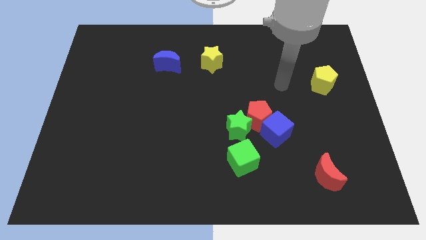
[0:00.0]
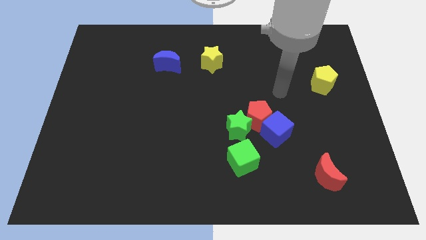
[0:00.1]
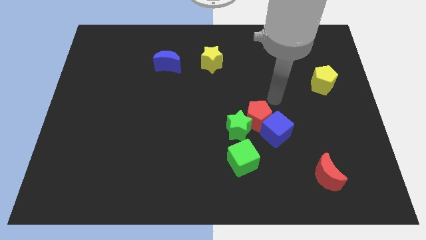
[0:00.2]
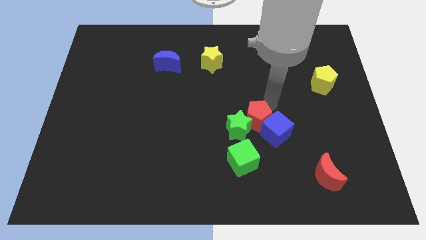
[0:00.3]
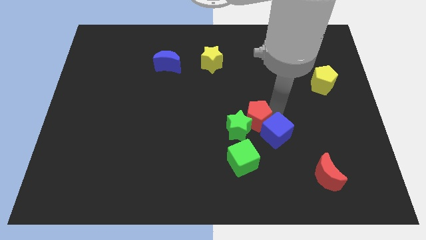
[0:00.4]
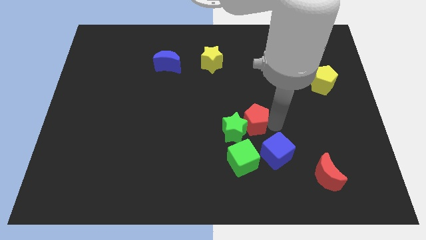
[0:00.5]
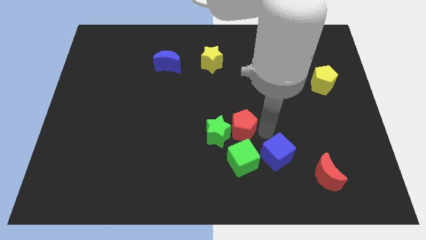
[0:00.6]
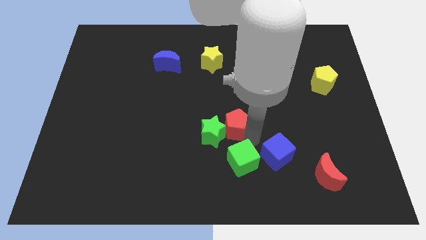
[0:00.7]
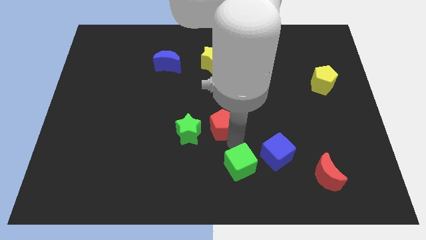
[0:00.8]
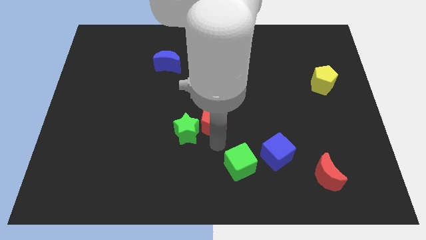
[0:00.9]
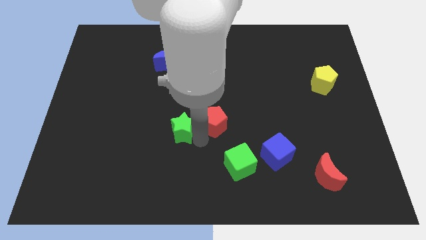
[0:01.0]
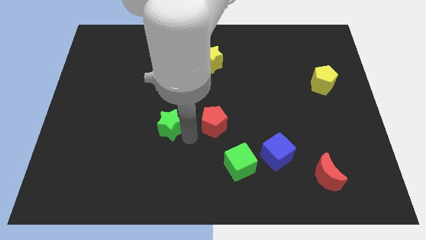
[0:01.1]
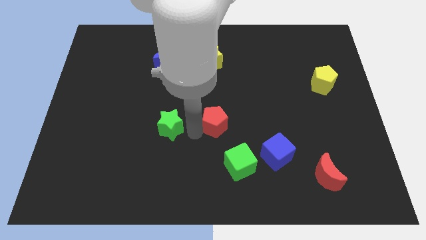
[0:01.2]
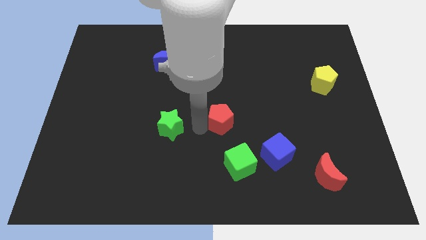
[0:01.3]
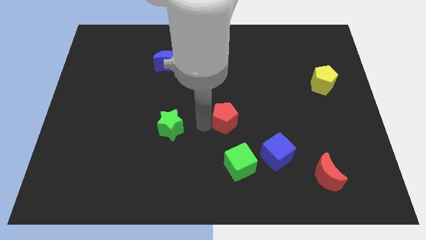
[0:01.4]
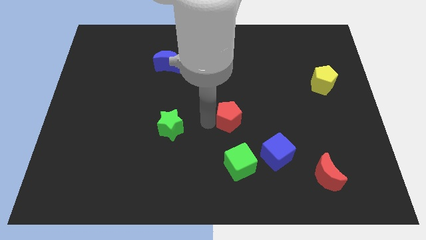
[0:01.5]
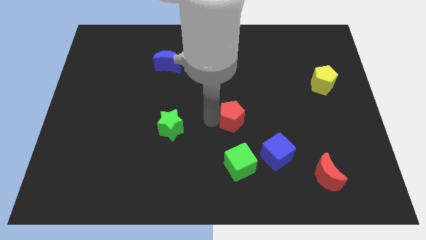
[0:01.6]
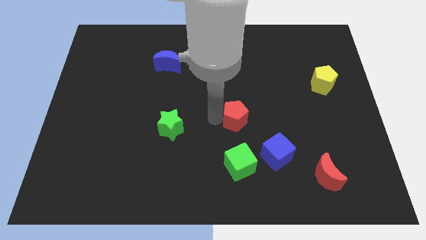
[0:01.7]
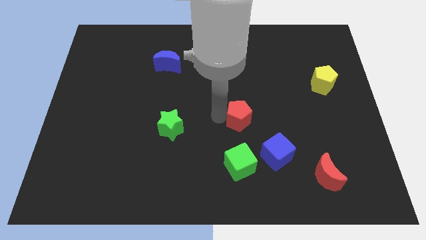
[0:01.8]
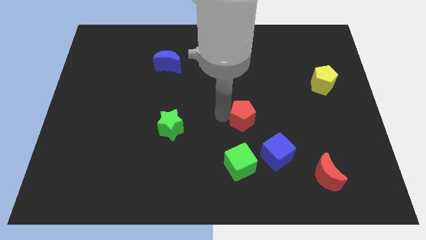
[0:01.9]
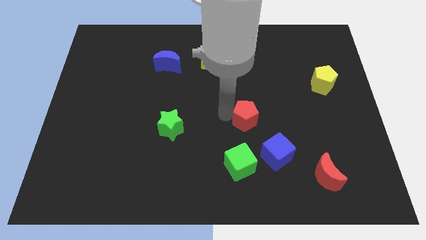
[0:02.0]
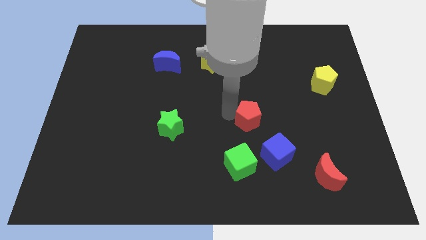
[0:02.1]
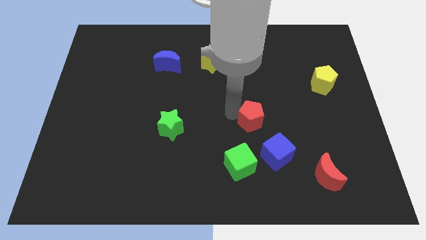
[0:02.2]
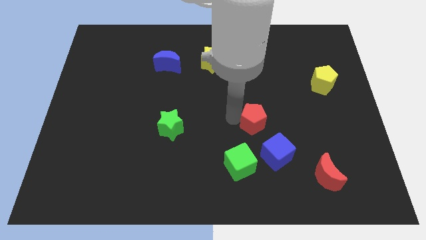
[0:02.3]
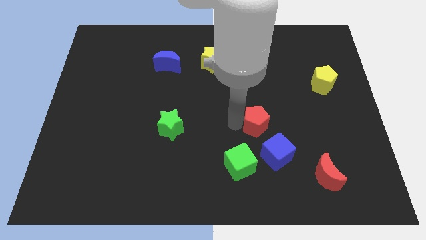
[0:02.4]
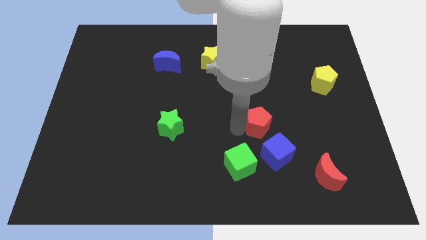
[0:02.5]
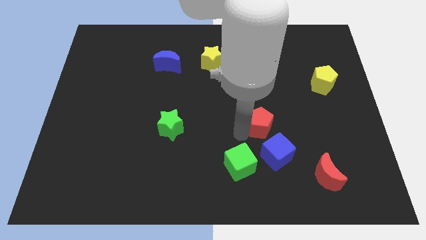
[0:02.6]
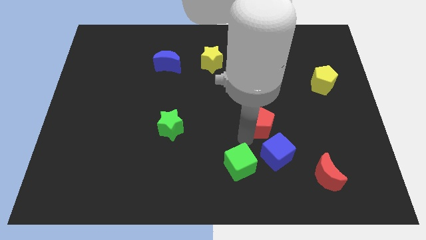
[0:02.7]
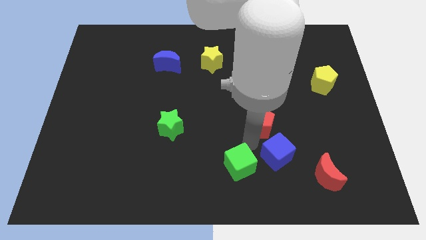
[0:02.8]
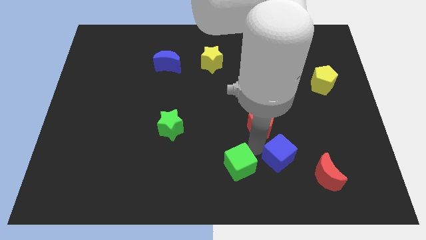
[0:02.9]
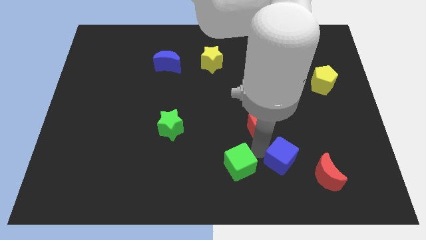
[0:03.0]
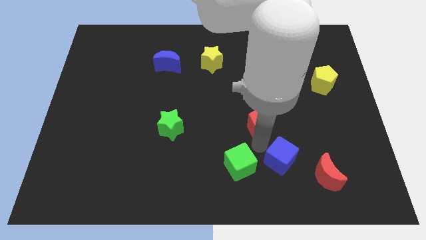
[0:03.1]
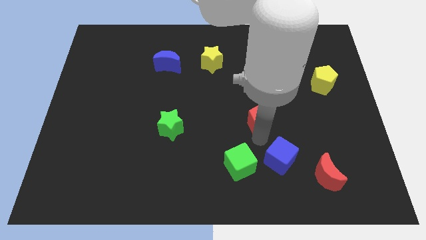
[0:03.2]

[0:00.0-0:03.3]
pull the red pentagon apart from the blue cube and green star

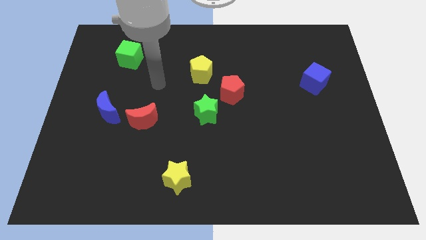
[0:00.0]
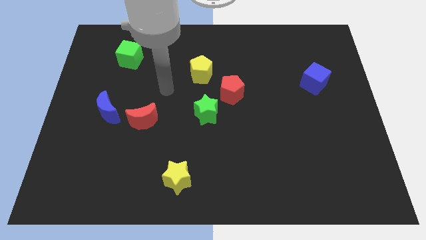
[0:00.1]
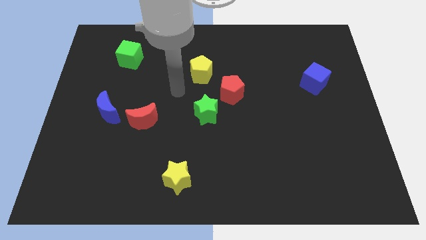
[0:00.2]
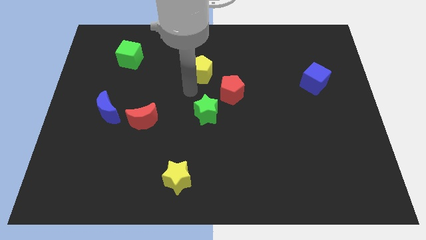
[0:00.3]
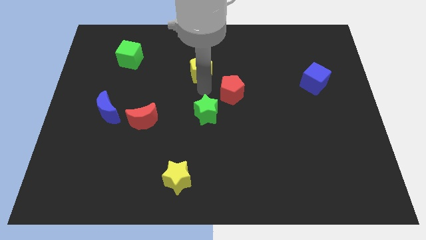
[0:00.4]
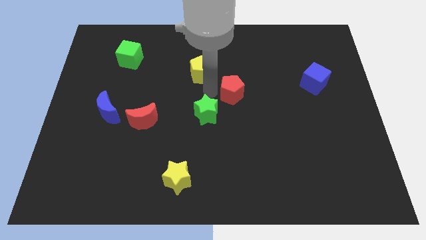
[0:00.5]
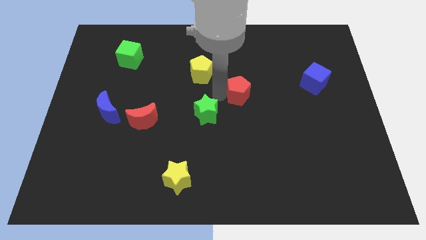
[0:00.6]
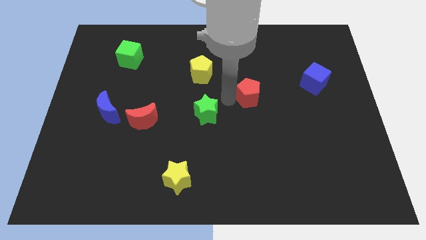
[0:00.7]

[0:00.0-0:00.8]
pull the green star apart from the red pentagon

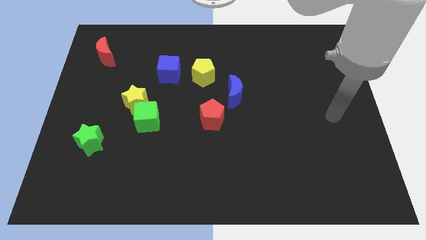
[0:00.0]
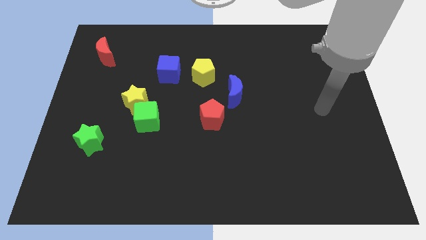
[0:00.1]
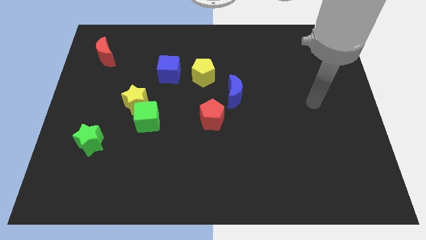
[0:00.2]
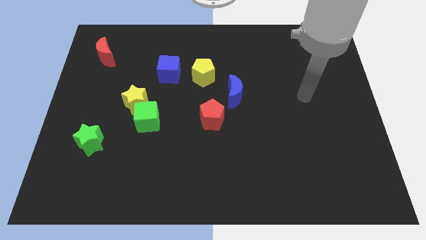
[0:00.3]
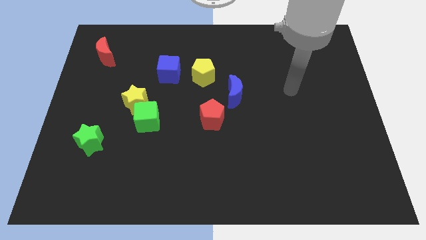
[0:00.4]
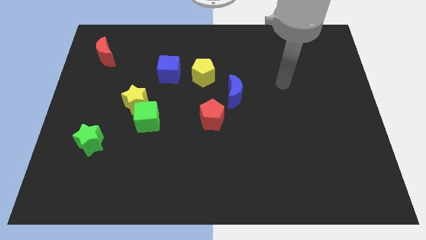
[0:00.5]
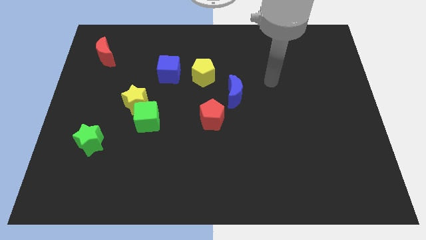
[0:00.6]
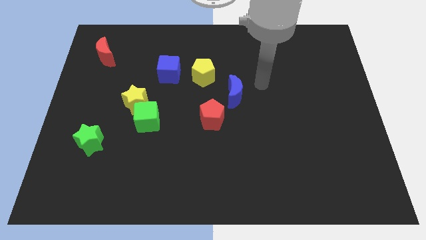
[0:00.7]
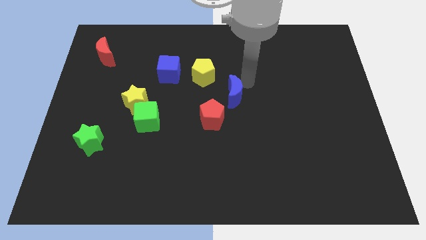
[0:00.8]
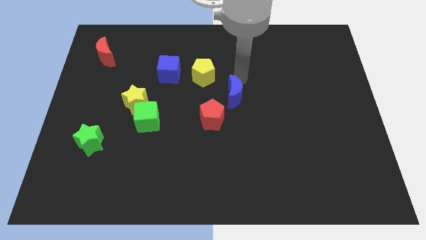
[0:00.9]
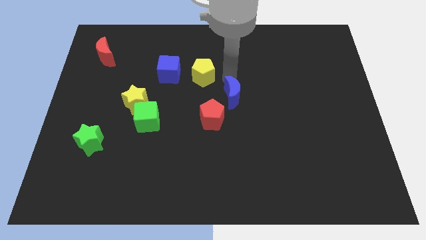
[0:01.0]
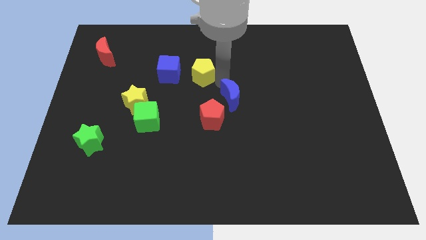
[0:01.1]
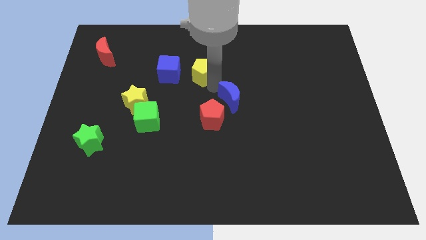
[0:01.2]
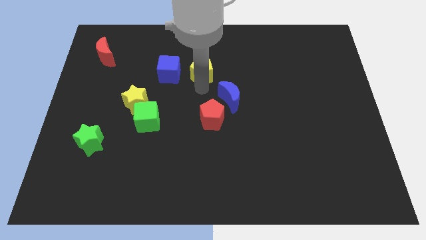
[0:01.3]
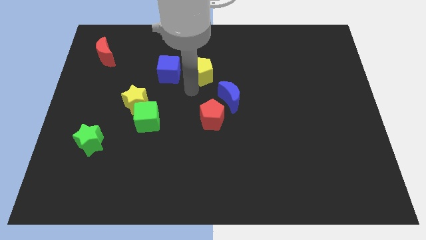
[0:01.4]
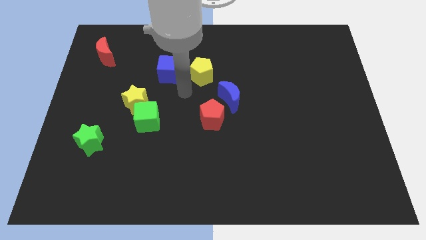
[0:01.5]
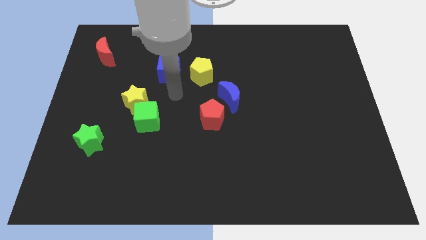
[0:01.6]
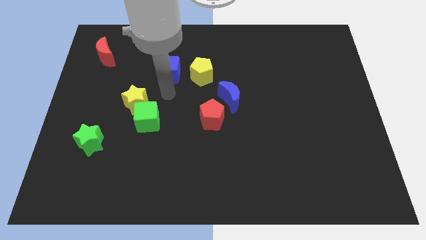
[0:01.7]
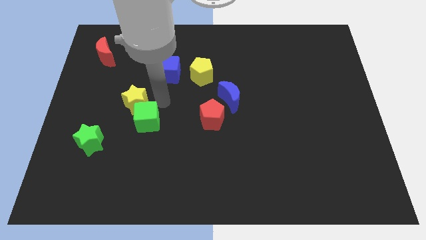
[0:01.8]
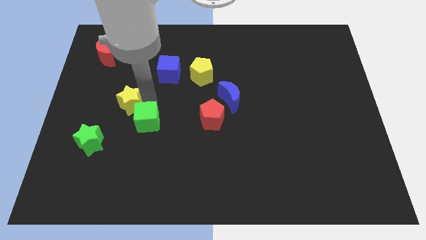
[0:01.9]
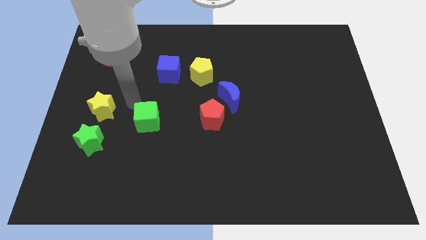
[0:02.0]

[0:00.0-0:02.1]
move the green cube away from the yellow star

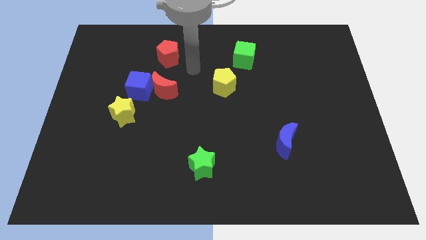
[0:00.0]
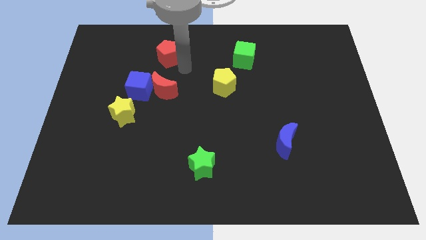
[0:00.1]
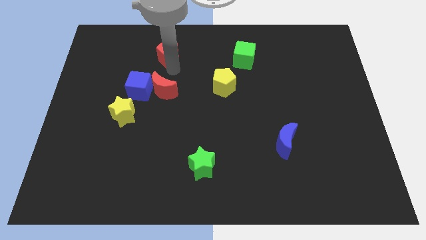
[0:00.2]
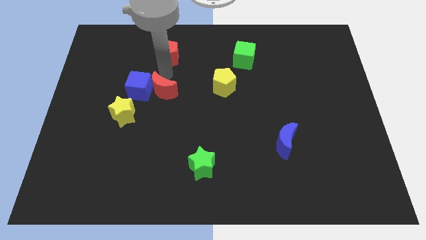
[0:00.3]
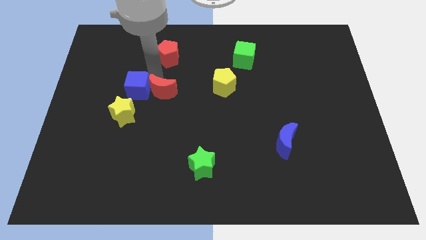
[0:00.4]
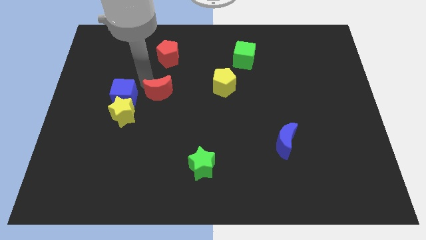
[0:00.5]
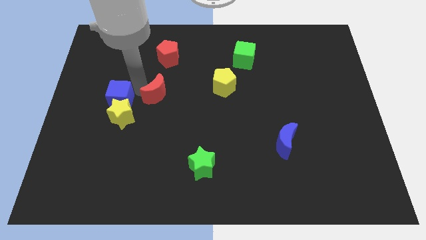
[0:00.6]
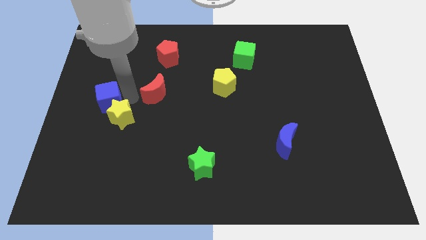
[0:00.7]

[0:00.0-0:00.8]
pull the red moon apart from the blue cube

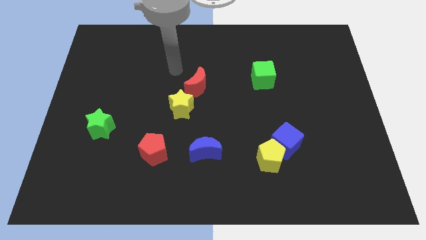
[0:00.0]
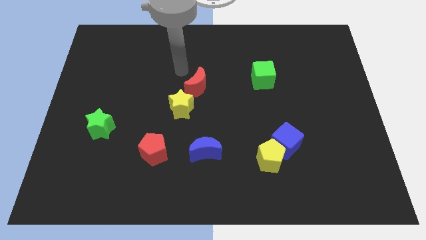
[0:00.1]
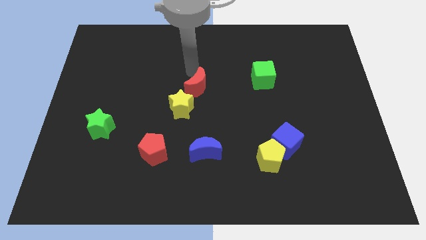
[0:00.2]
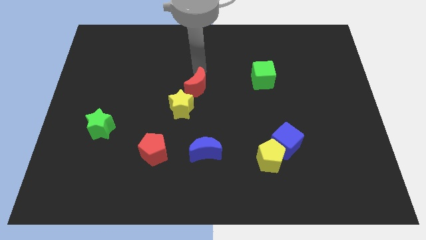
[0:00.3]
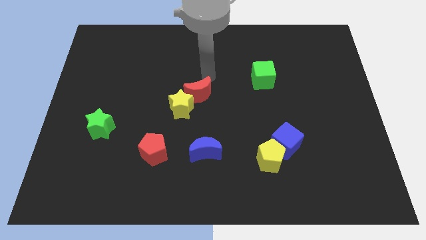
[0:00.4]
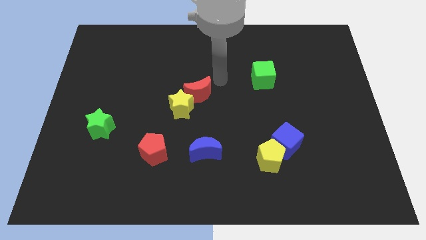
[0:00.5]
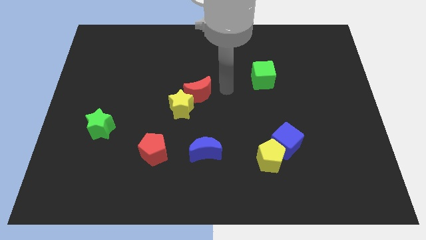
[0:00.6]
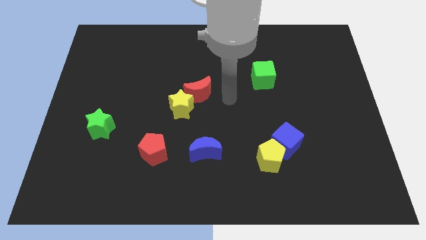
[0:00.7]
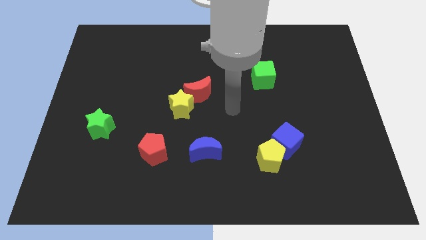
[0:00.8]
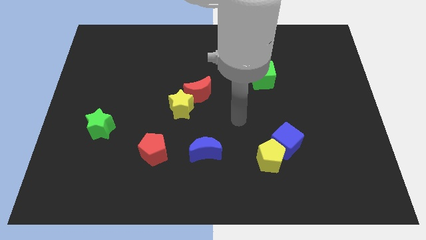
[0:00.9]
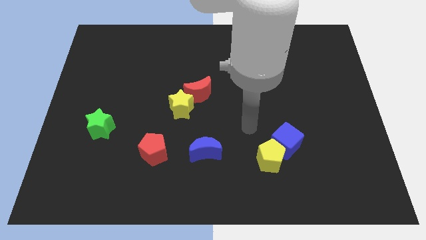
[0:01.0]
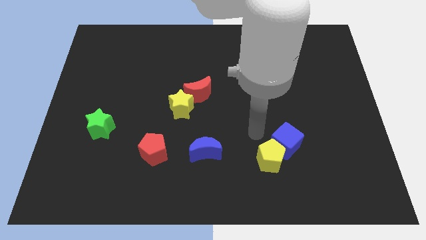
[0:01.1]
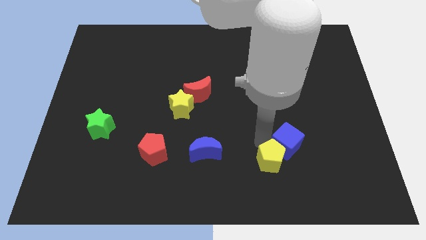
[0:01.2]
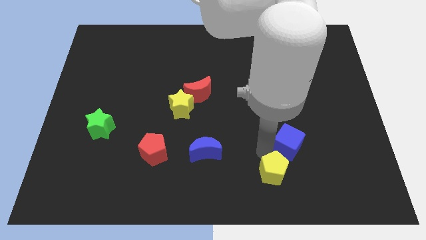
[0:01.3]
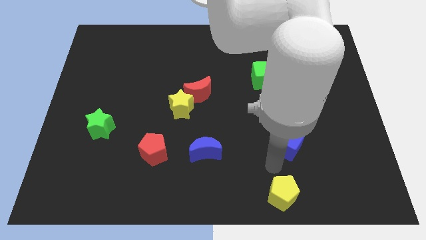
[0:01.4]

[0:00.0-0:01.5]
separate the blue cube from the yellow pentagon

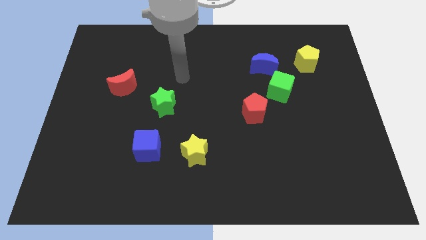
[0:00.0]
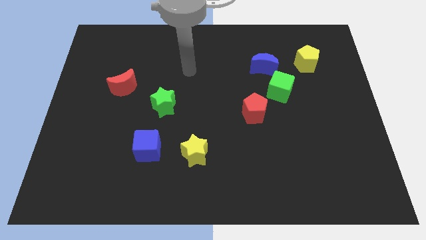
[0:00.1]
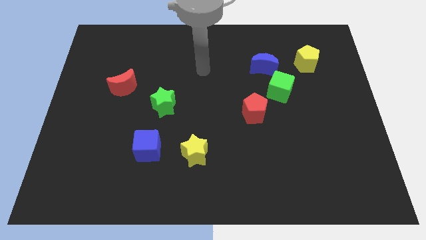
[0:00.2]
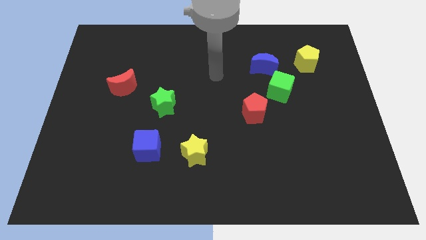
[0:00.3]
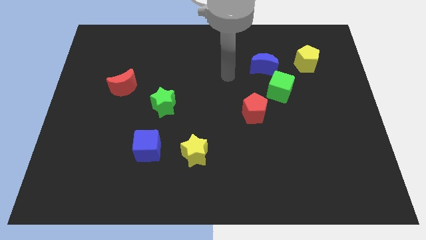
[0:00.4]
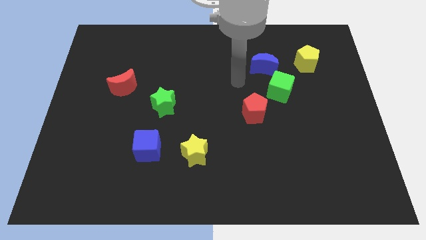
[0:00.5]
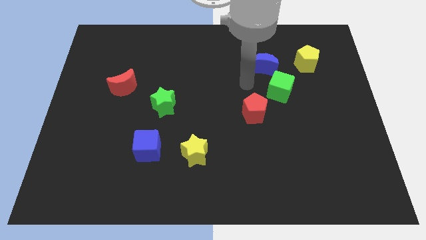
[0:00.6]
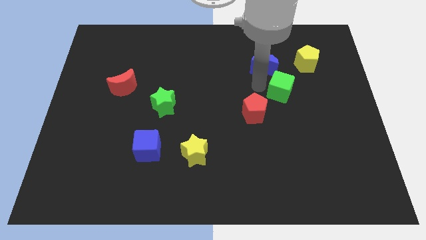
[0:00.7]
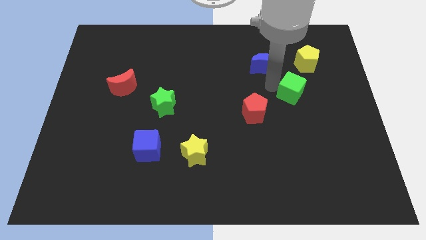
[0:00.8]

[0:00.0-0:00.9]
separate the blue moon from the green cube
